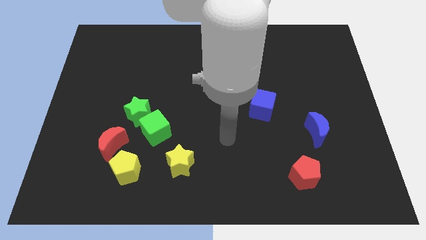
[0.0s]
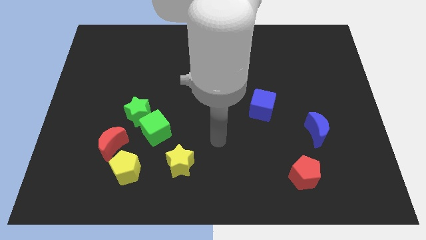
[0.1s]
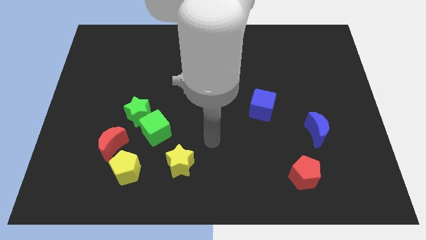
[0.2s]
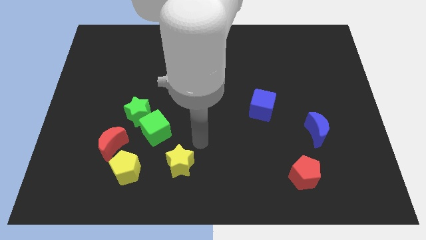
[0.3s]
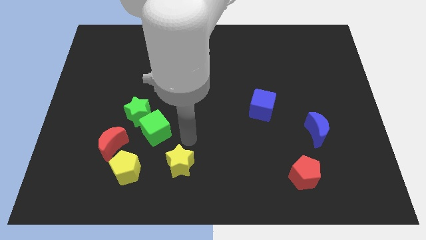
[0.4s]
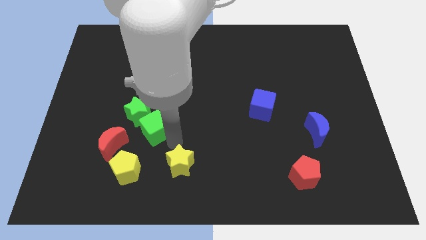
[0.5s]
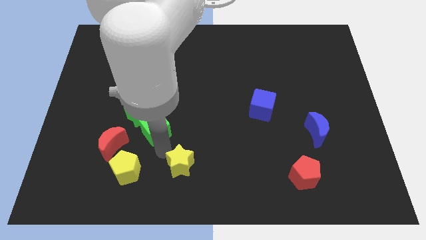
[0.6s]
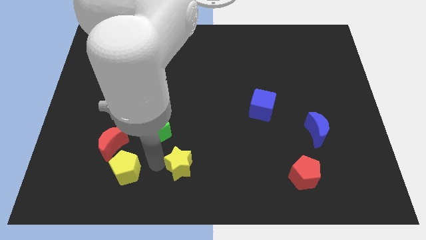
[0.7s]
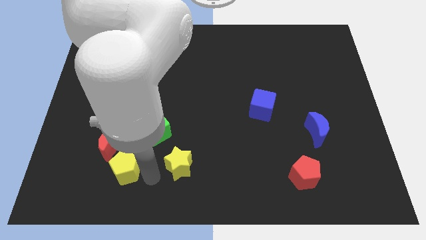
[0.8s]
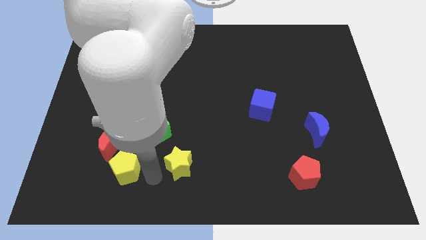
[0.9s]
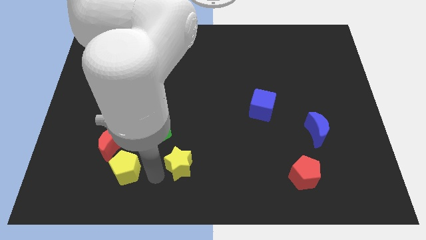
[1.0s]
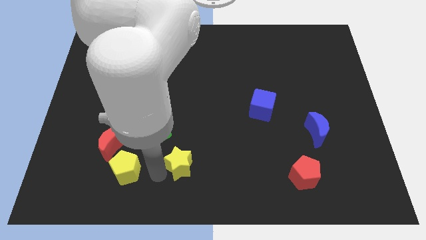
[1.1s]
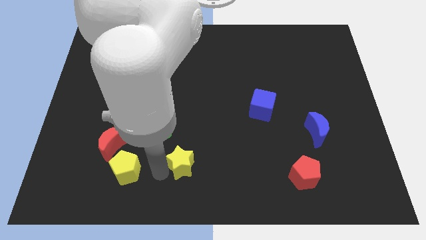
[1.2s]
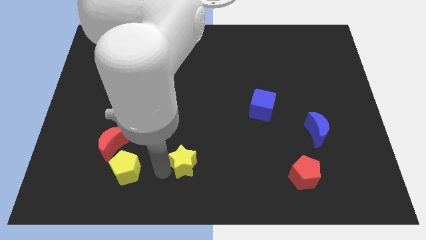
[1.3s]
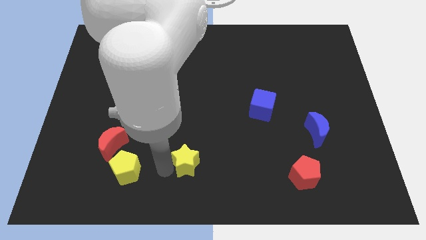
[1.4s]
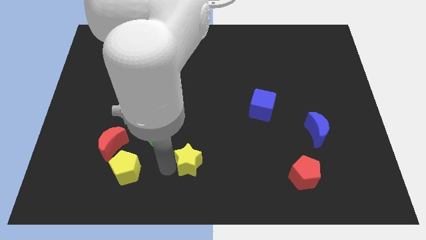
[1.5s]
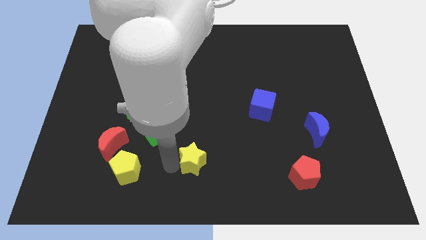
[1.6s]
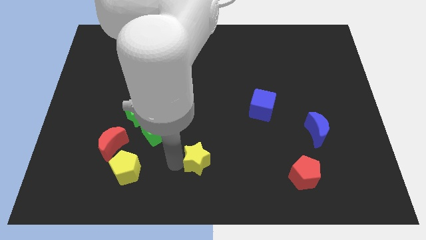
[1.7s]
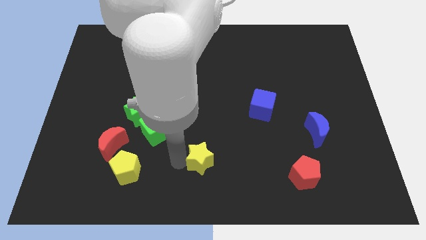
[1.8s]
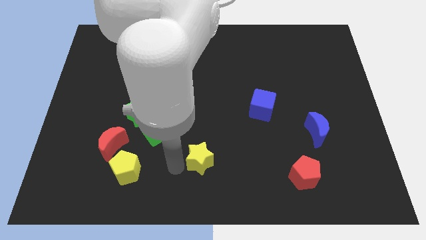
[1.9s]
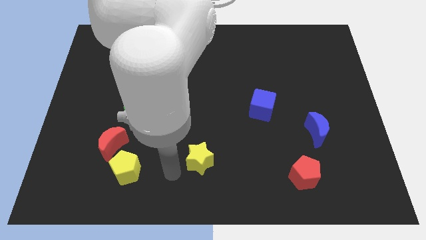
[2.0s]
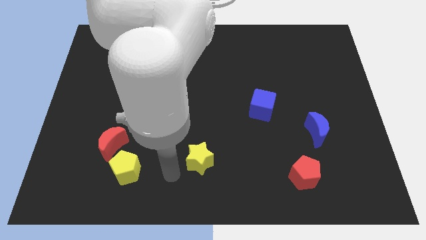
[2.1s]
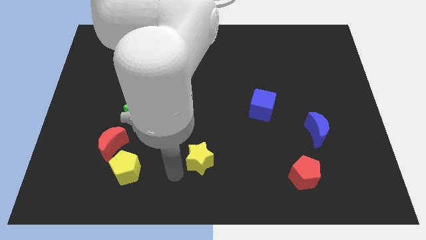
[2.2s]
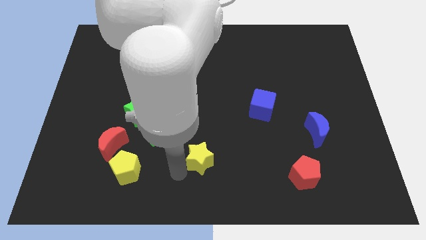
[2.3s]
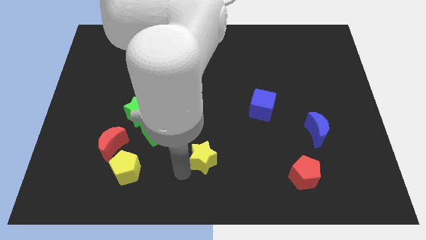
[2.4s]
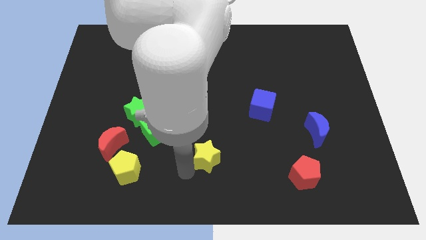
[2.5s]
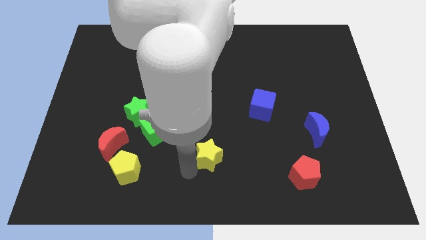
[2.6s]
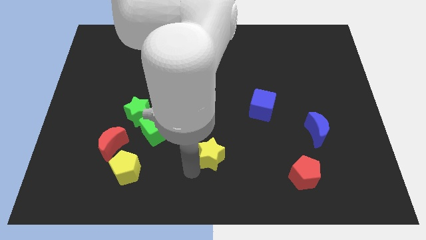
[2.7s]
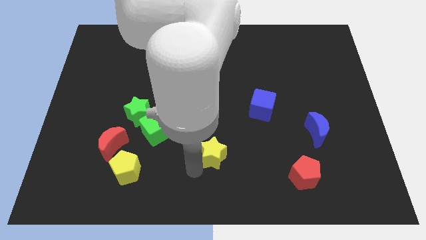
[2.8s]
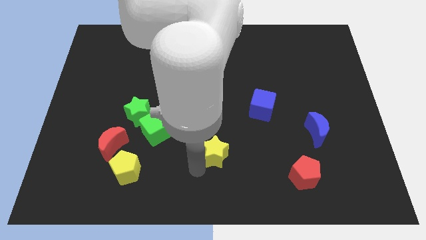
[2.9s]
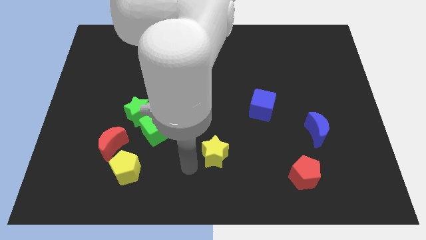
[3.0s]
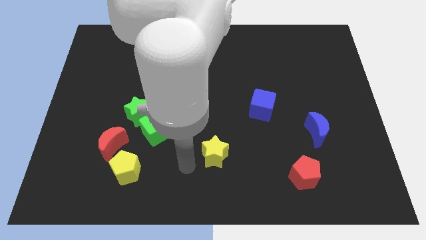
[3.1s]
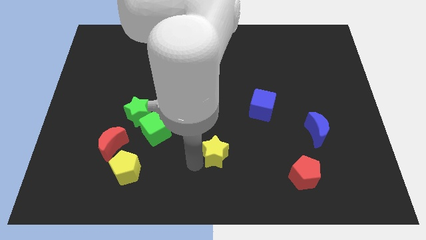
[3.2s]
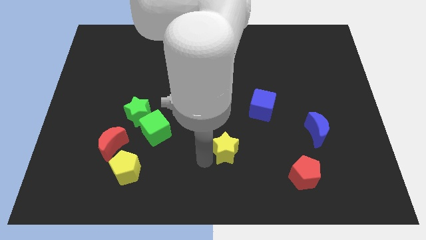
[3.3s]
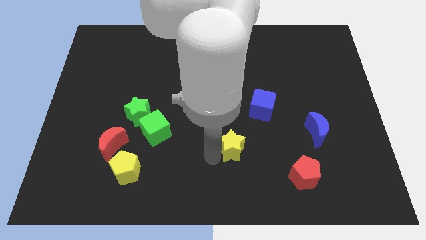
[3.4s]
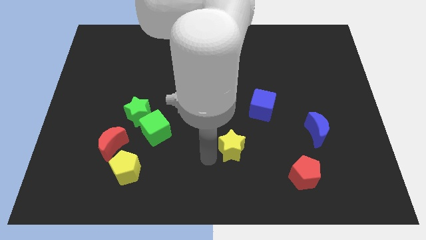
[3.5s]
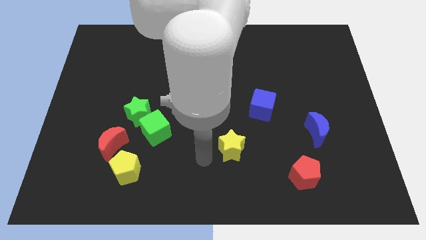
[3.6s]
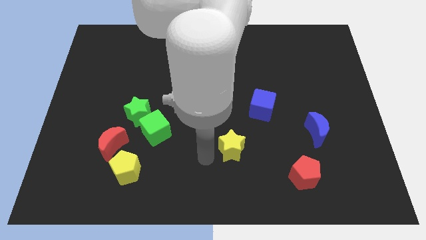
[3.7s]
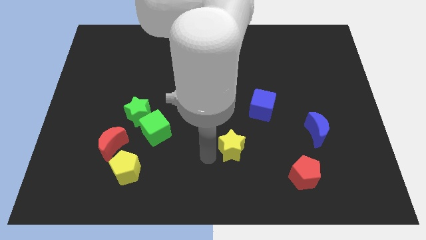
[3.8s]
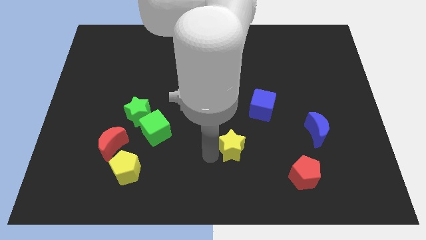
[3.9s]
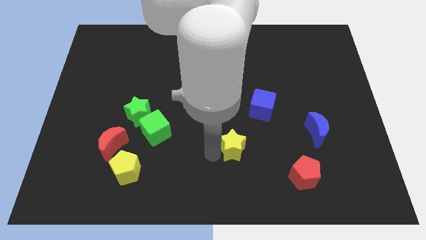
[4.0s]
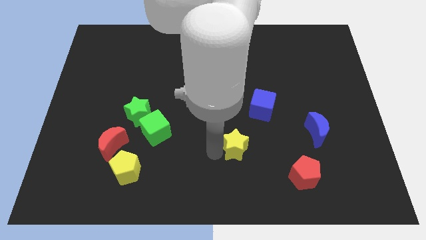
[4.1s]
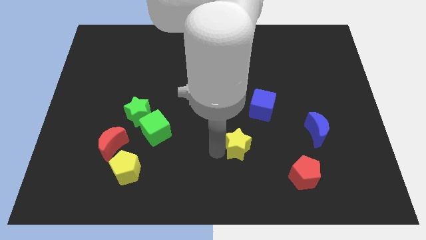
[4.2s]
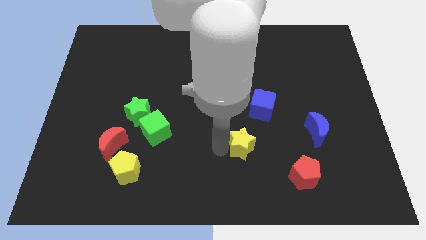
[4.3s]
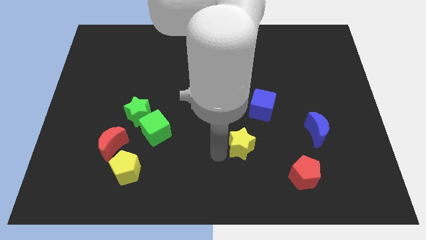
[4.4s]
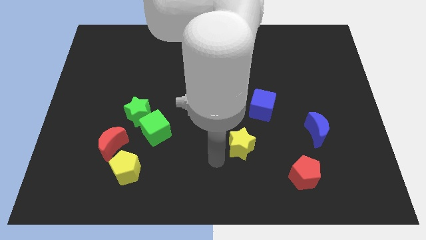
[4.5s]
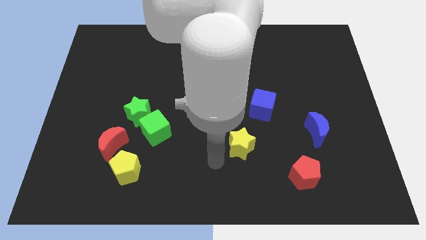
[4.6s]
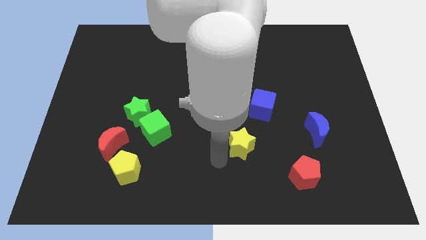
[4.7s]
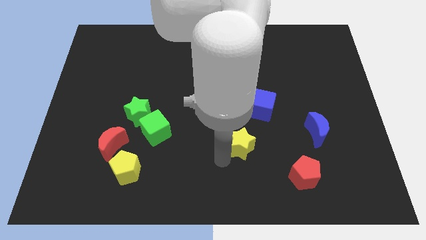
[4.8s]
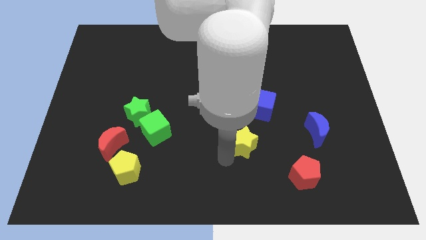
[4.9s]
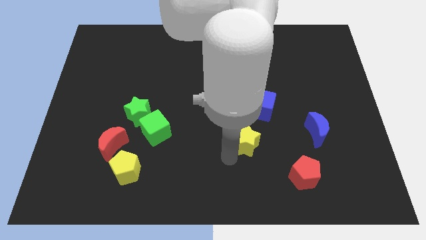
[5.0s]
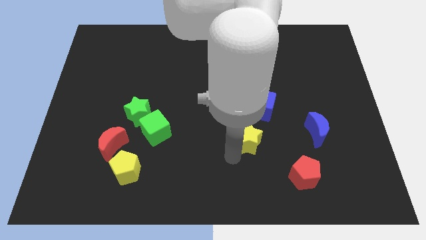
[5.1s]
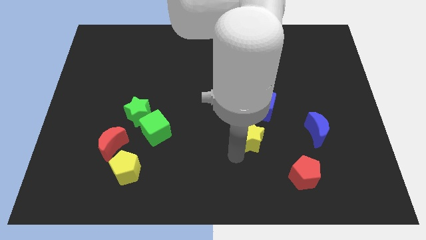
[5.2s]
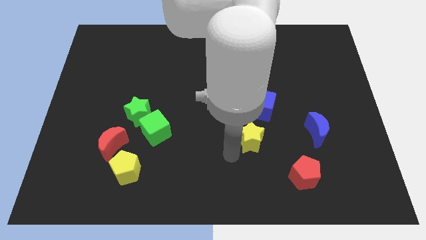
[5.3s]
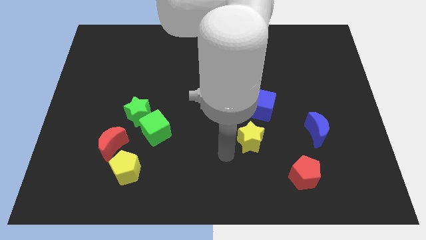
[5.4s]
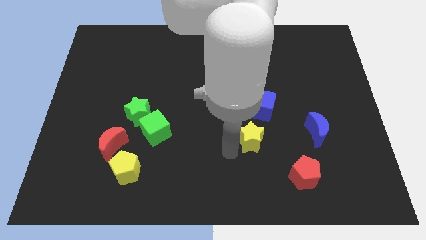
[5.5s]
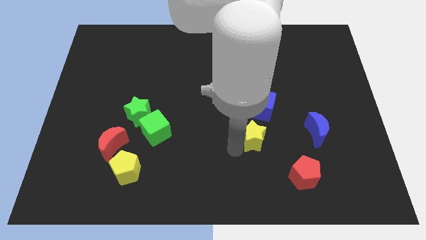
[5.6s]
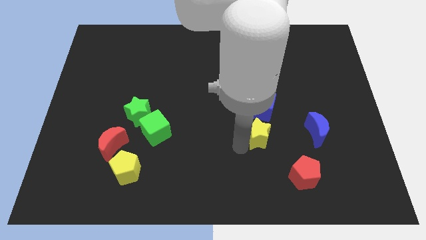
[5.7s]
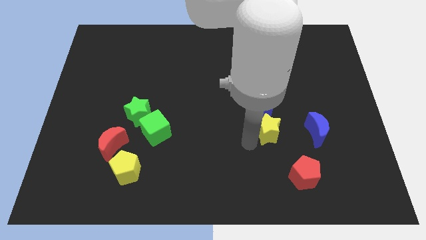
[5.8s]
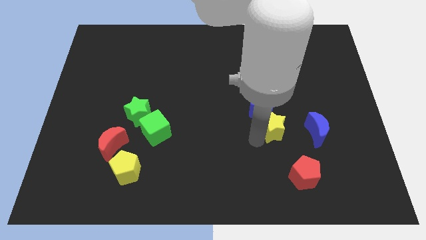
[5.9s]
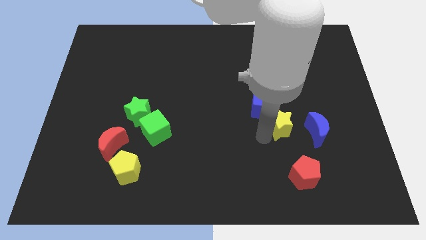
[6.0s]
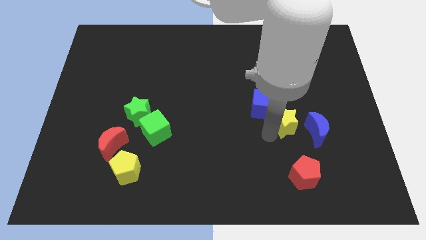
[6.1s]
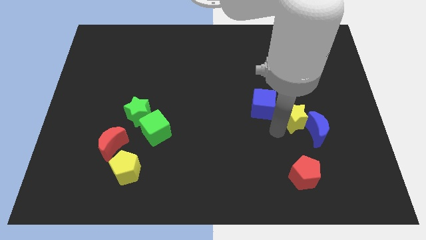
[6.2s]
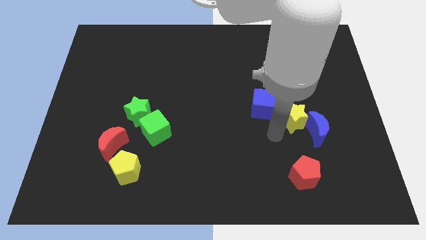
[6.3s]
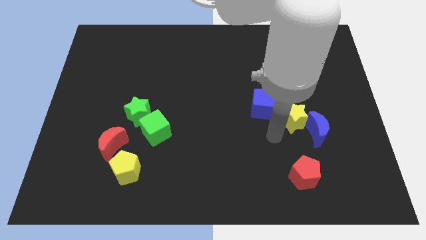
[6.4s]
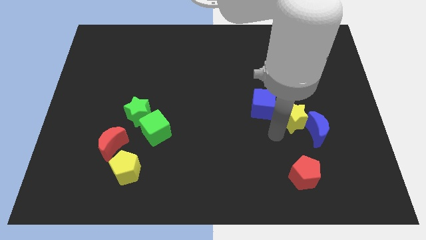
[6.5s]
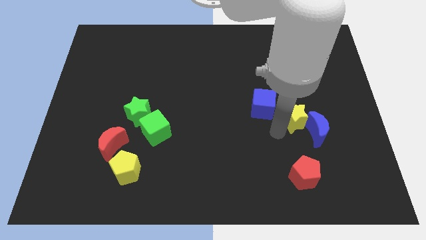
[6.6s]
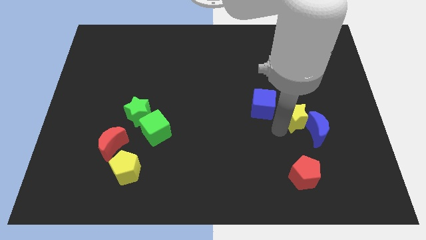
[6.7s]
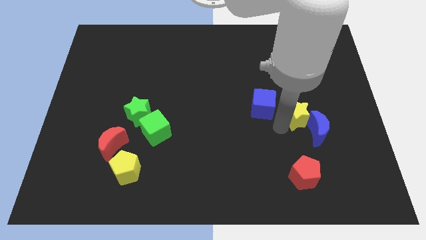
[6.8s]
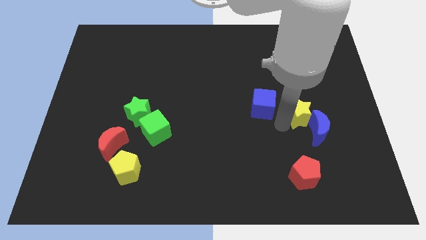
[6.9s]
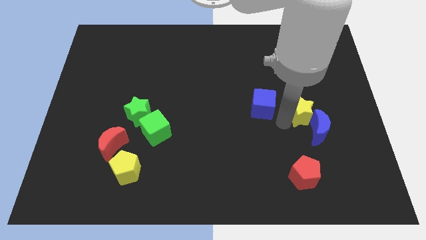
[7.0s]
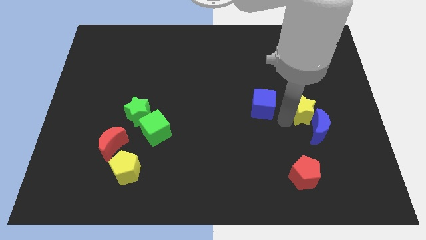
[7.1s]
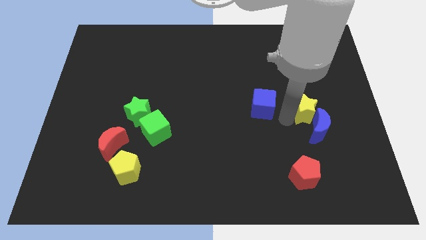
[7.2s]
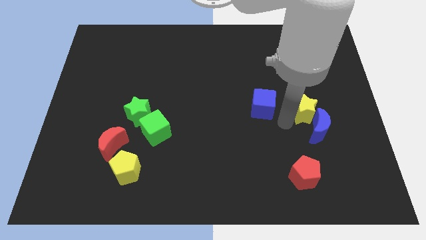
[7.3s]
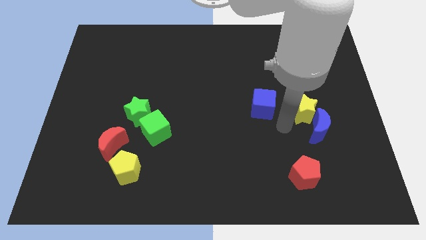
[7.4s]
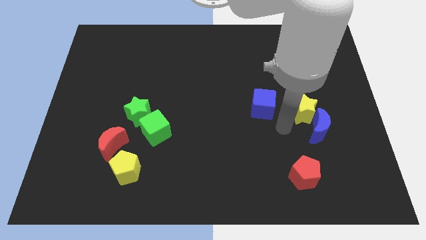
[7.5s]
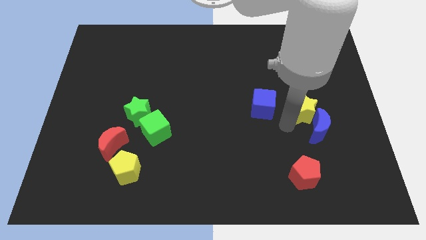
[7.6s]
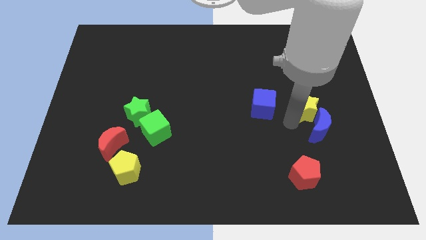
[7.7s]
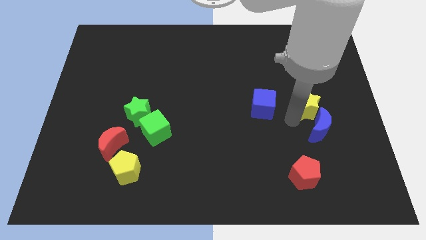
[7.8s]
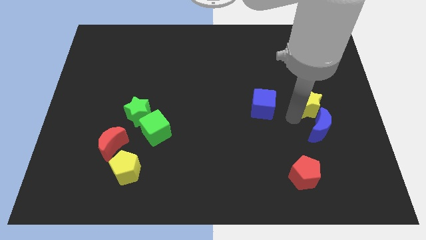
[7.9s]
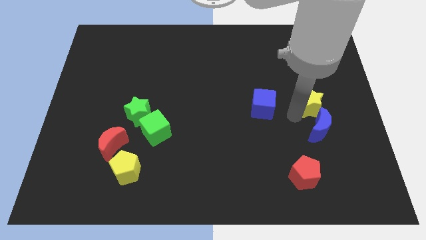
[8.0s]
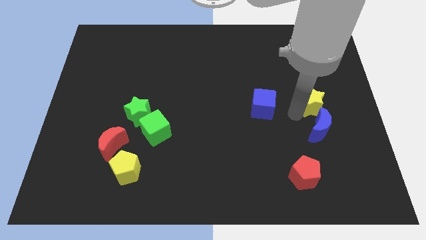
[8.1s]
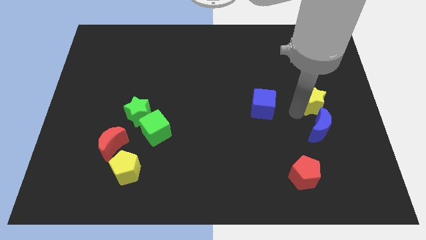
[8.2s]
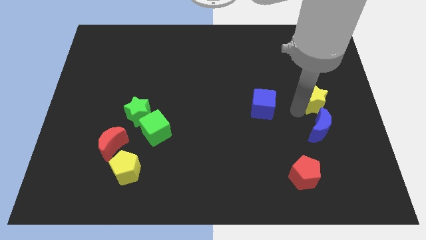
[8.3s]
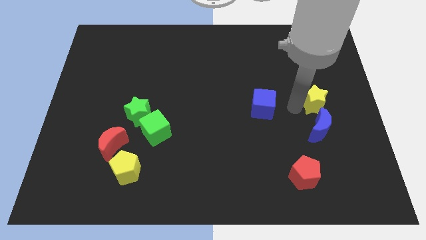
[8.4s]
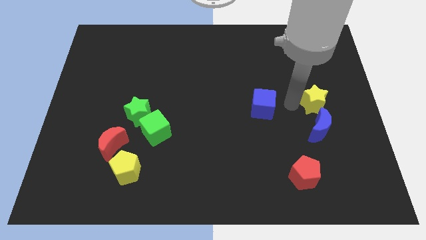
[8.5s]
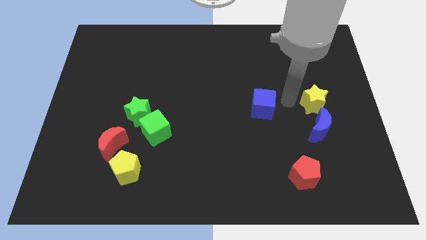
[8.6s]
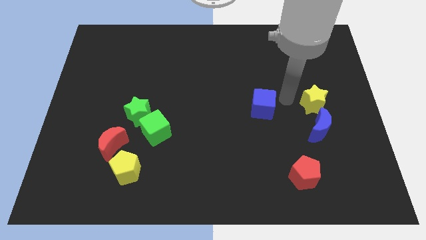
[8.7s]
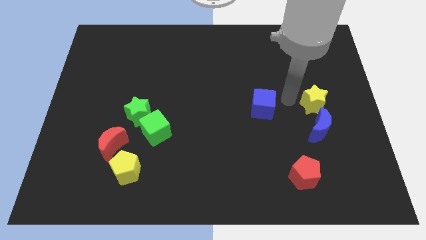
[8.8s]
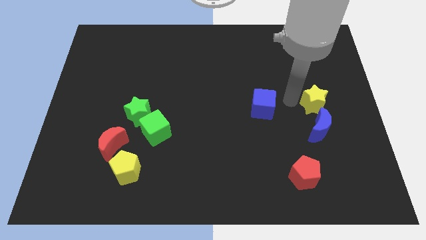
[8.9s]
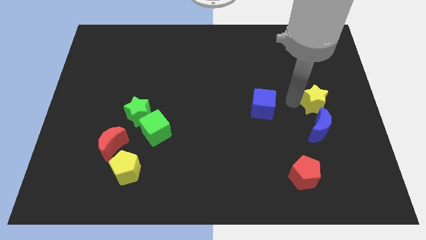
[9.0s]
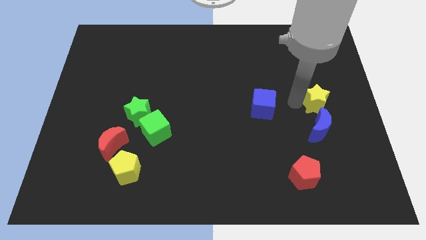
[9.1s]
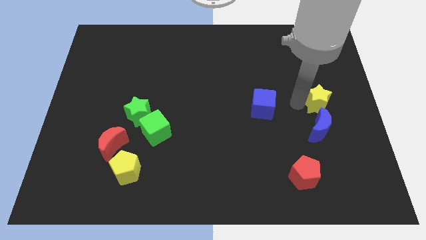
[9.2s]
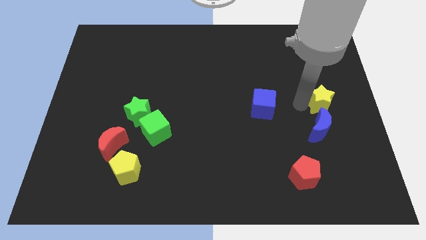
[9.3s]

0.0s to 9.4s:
put the yellow star to the right side of the board
